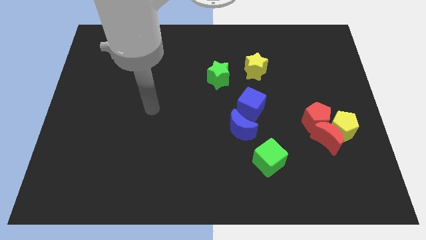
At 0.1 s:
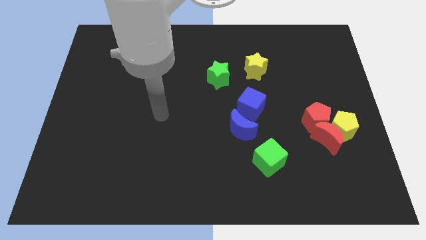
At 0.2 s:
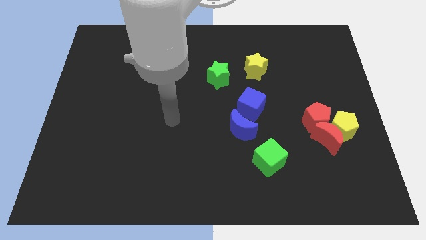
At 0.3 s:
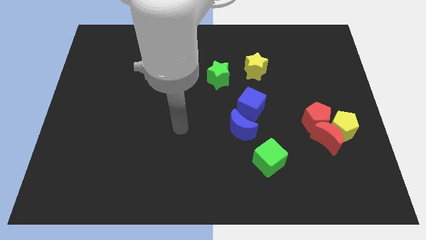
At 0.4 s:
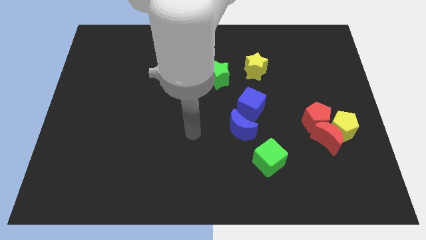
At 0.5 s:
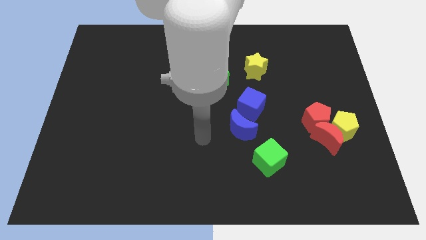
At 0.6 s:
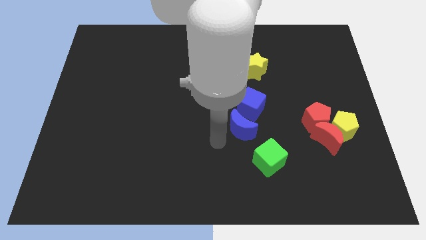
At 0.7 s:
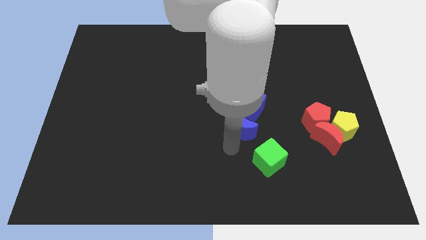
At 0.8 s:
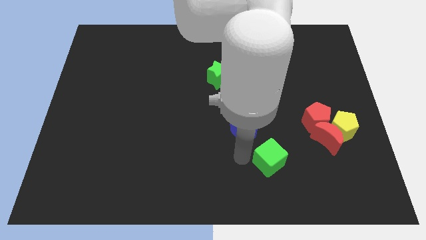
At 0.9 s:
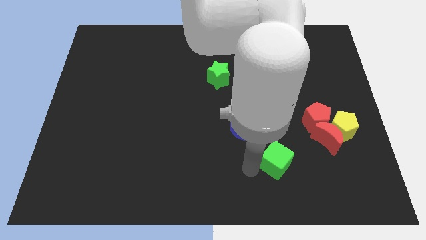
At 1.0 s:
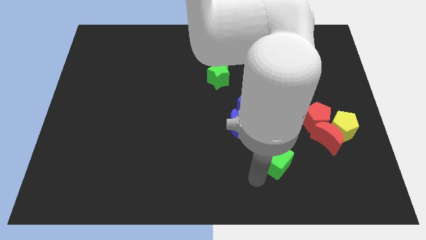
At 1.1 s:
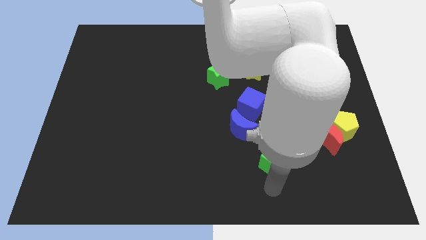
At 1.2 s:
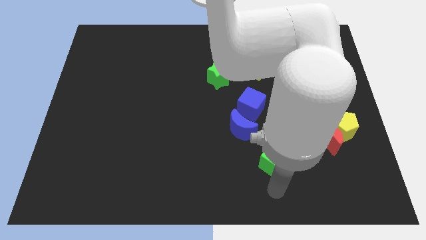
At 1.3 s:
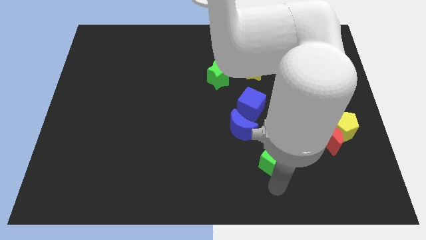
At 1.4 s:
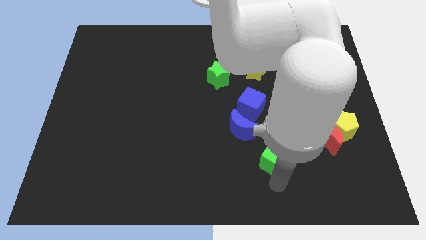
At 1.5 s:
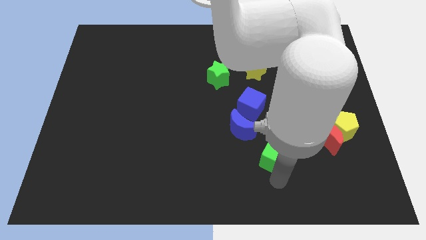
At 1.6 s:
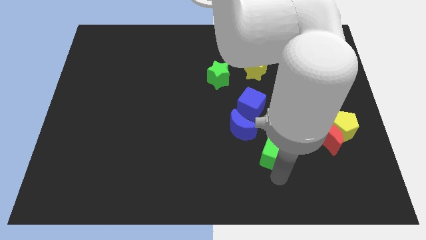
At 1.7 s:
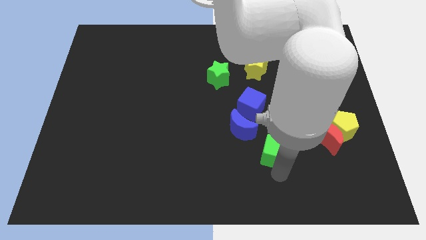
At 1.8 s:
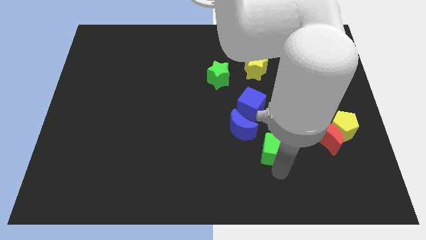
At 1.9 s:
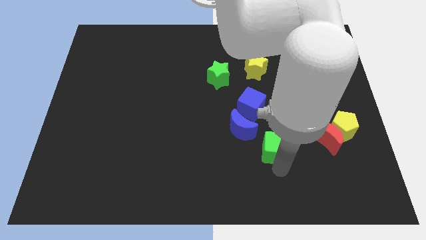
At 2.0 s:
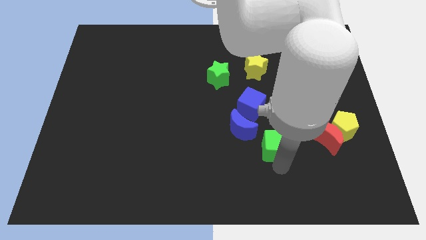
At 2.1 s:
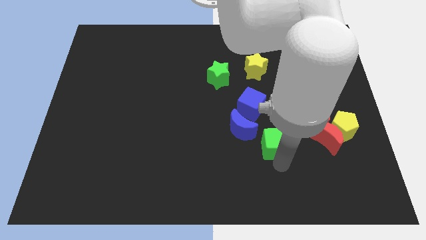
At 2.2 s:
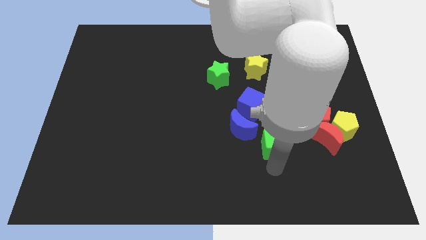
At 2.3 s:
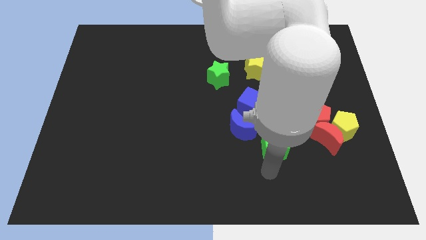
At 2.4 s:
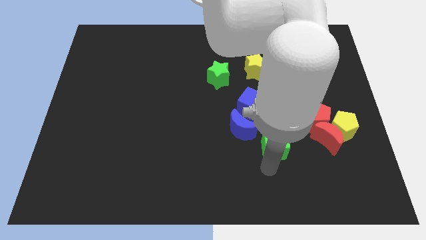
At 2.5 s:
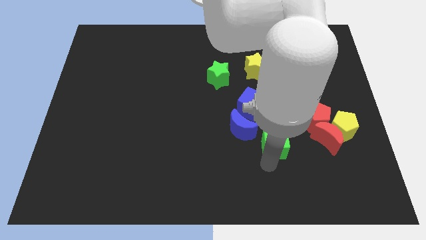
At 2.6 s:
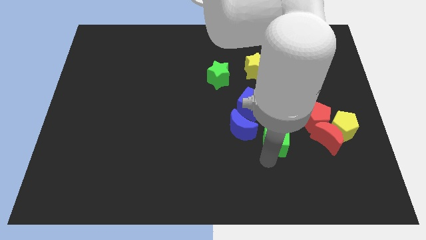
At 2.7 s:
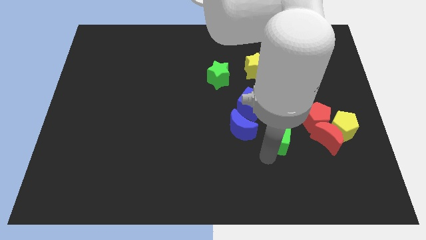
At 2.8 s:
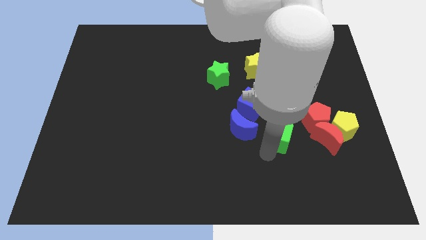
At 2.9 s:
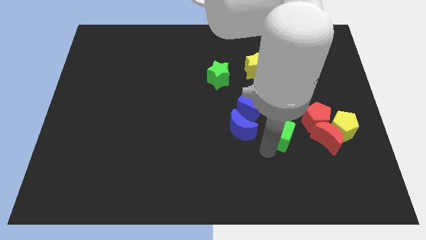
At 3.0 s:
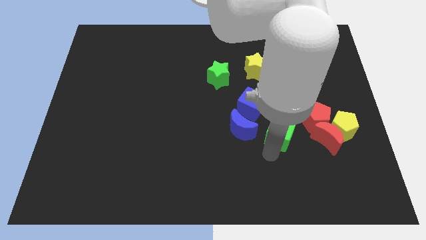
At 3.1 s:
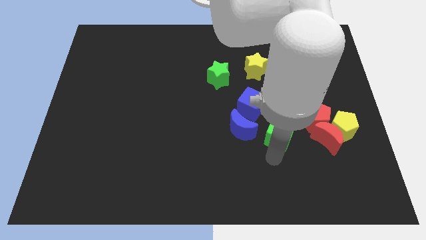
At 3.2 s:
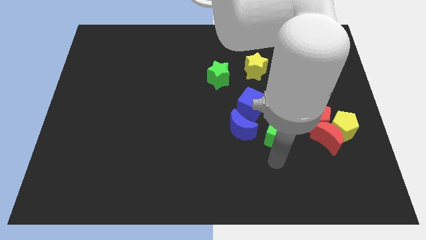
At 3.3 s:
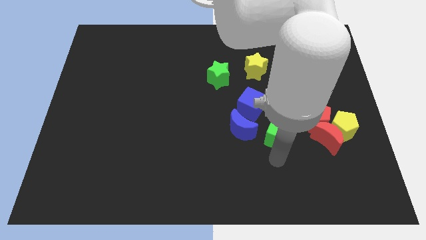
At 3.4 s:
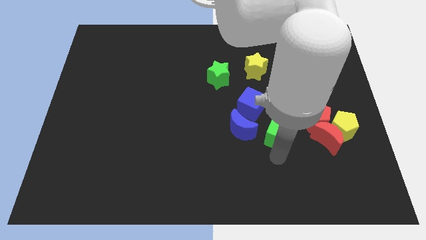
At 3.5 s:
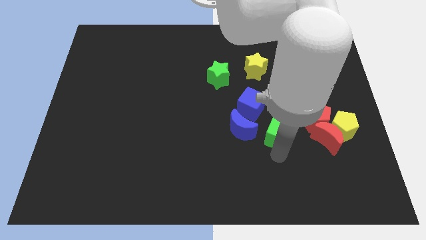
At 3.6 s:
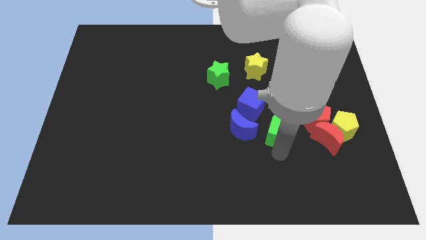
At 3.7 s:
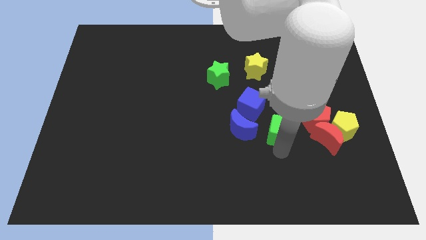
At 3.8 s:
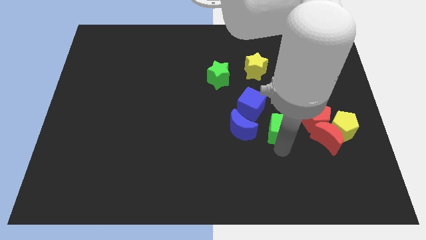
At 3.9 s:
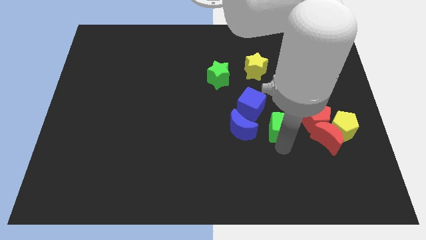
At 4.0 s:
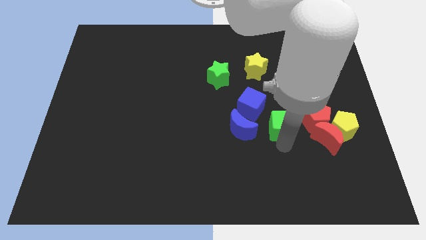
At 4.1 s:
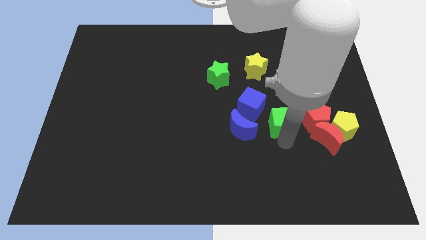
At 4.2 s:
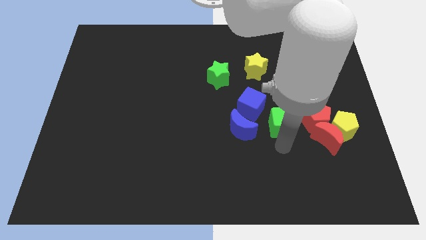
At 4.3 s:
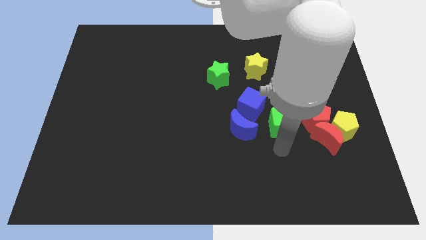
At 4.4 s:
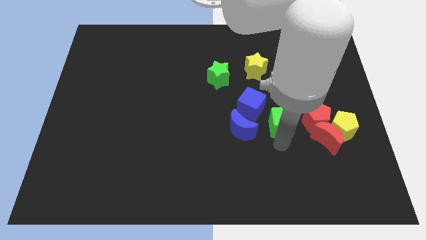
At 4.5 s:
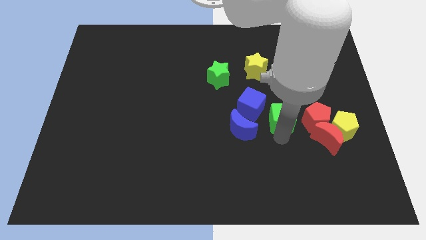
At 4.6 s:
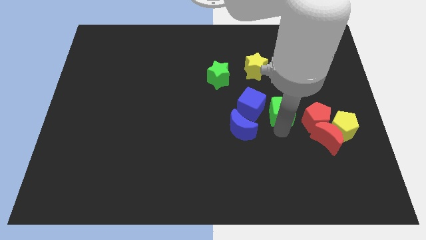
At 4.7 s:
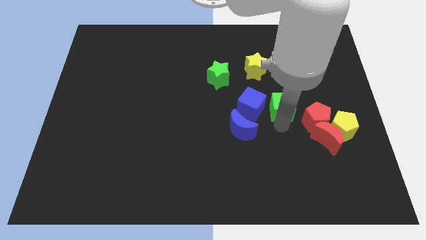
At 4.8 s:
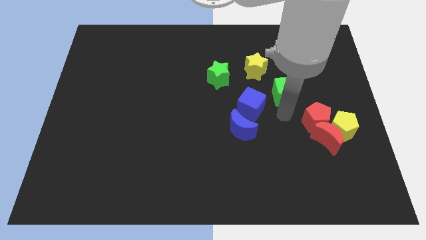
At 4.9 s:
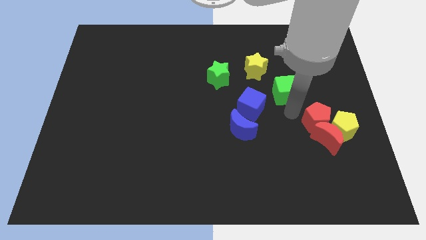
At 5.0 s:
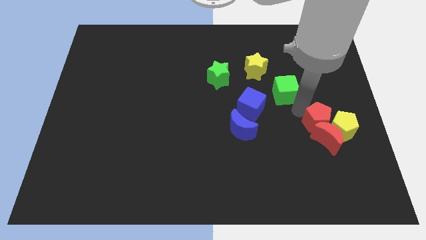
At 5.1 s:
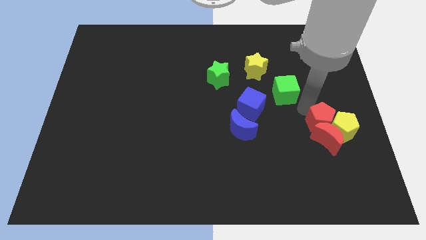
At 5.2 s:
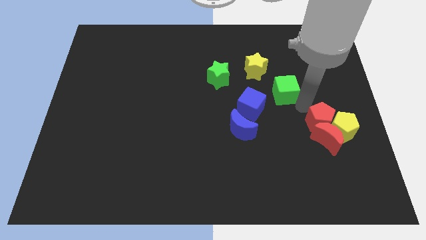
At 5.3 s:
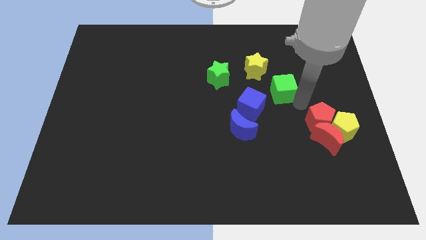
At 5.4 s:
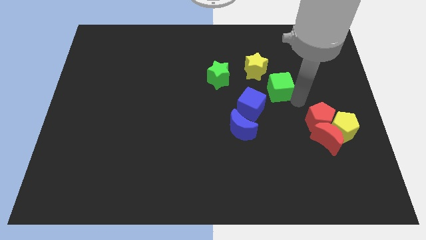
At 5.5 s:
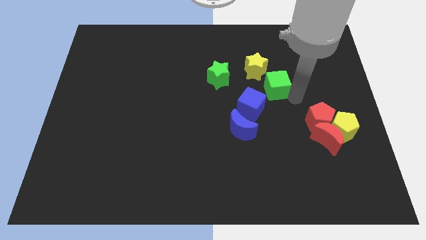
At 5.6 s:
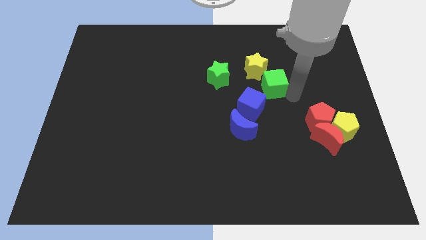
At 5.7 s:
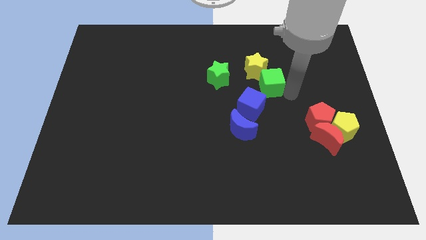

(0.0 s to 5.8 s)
push the green cube to the yellow star

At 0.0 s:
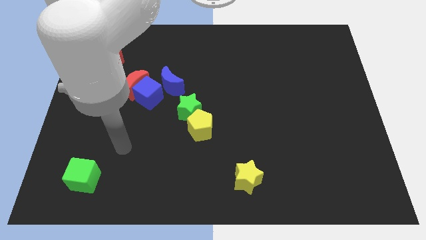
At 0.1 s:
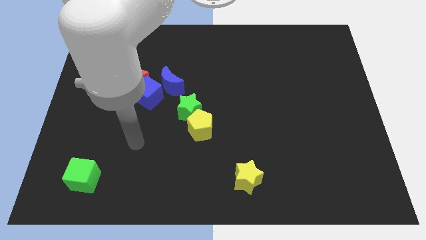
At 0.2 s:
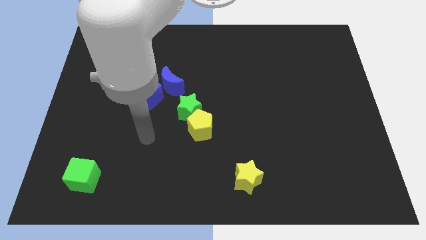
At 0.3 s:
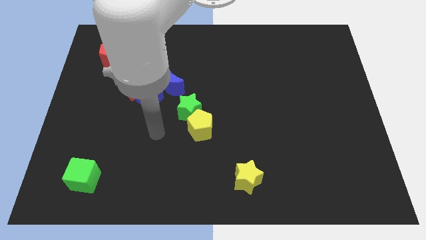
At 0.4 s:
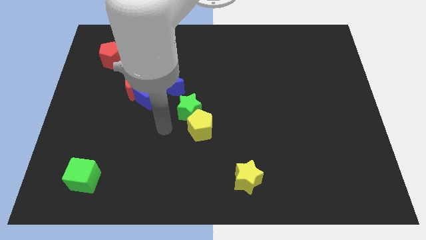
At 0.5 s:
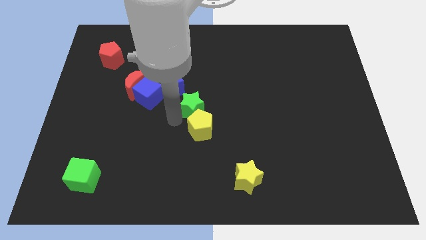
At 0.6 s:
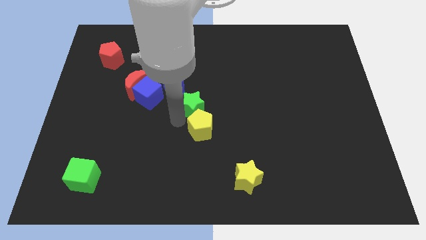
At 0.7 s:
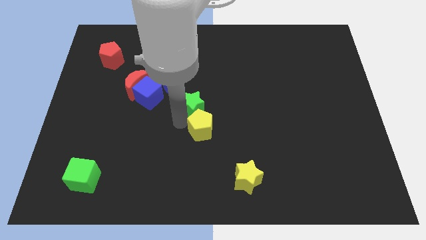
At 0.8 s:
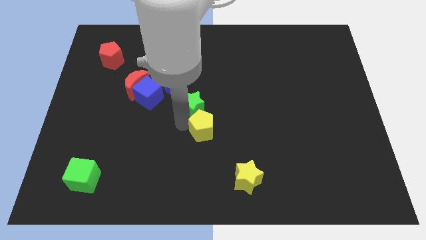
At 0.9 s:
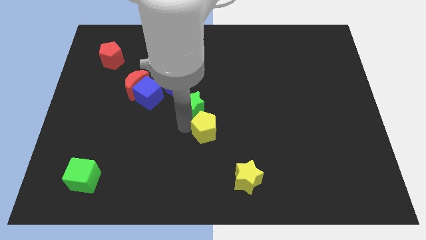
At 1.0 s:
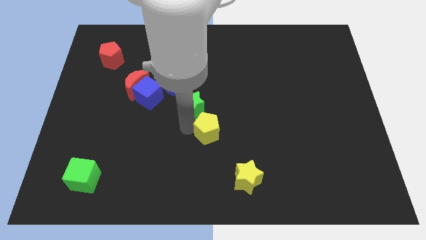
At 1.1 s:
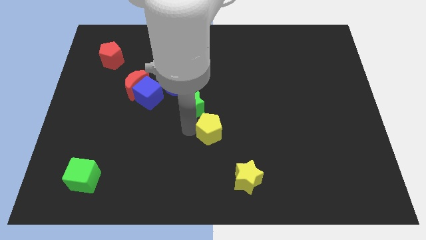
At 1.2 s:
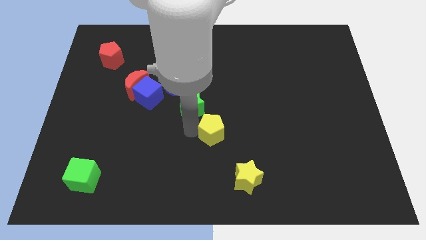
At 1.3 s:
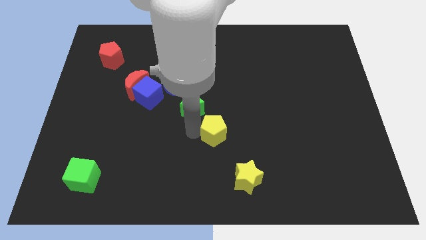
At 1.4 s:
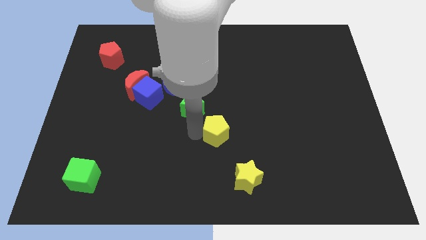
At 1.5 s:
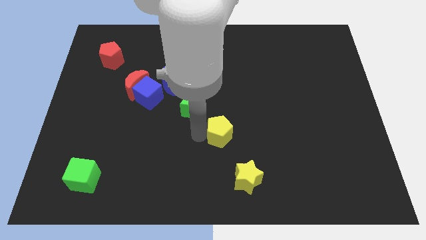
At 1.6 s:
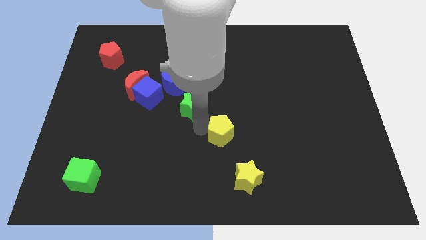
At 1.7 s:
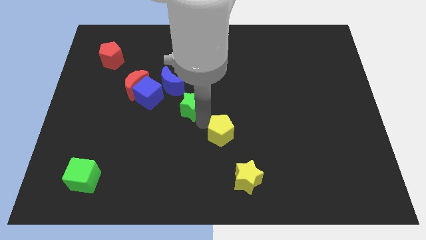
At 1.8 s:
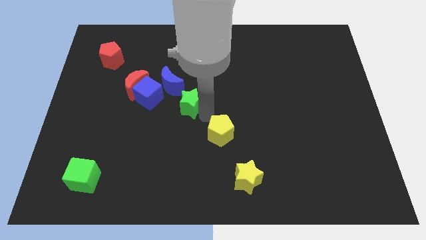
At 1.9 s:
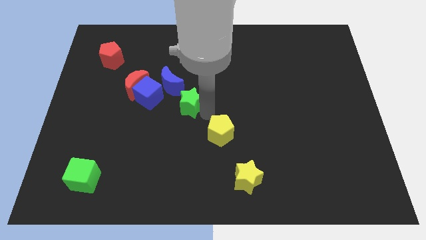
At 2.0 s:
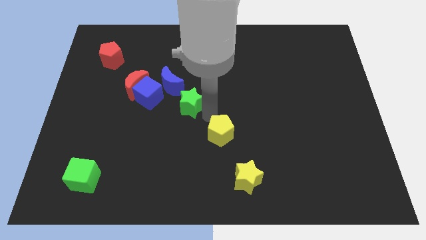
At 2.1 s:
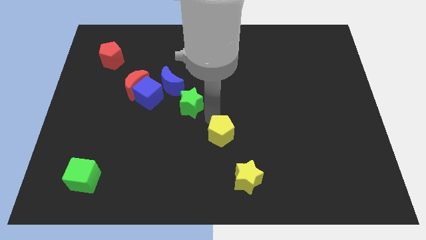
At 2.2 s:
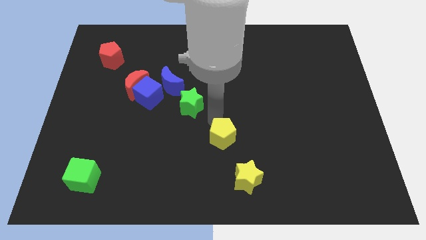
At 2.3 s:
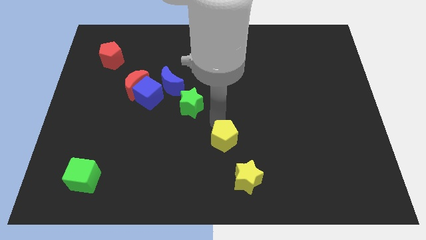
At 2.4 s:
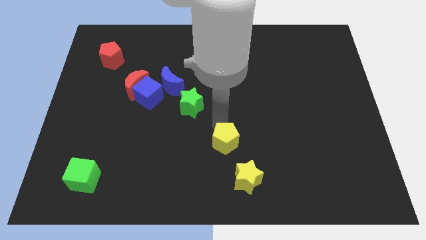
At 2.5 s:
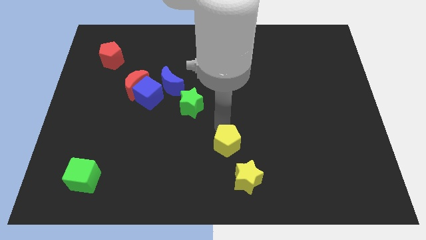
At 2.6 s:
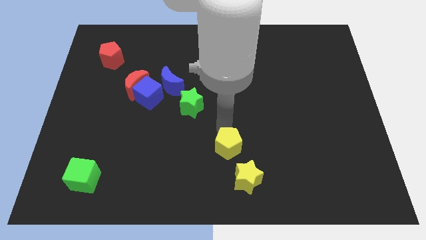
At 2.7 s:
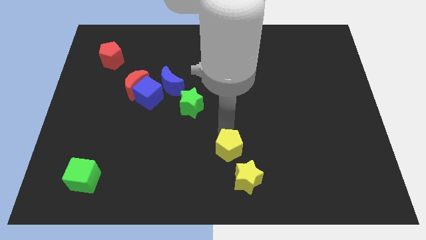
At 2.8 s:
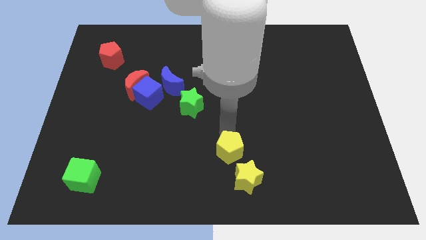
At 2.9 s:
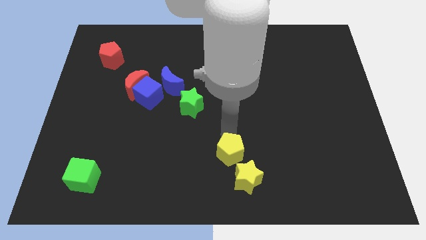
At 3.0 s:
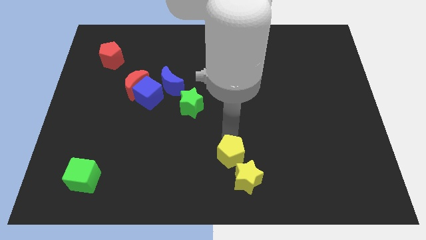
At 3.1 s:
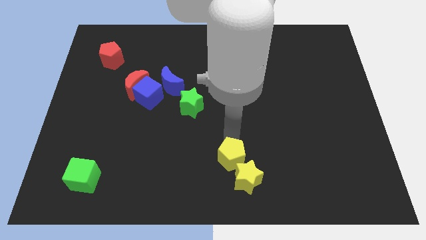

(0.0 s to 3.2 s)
push the yellow pentagon to the yellow star
